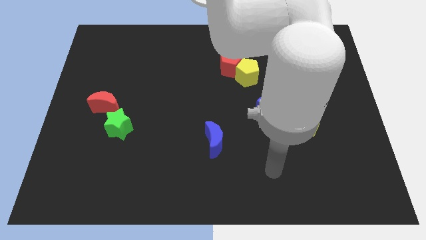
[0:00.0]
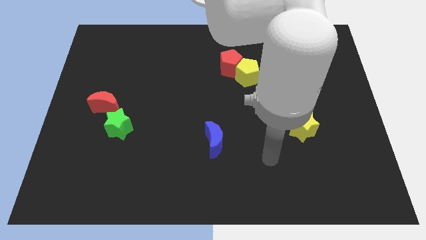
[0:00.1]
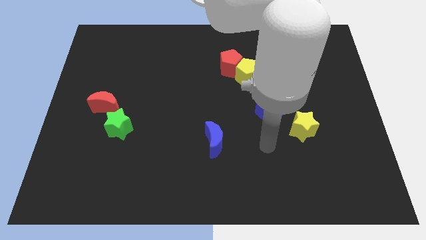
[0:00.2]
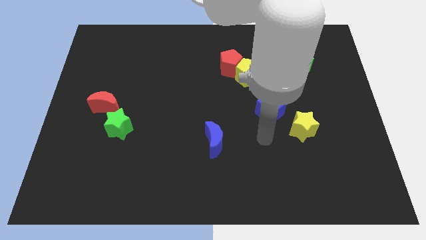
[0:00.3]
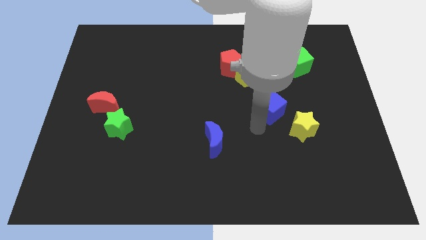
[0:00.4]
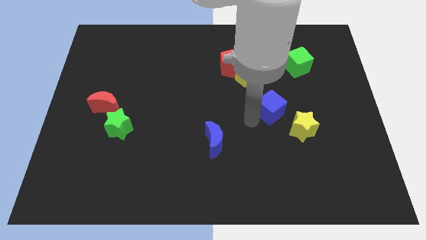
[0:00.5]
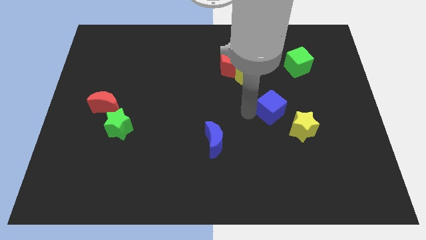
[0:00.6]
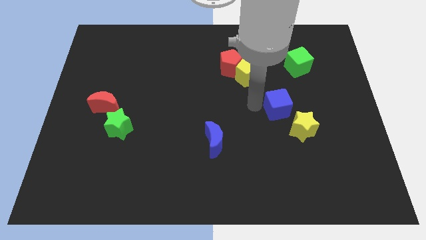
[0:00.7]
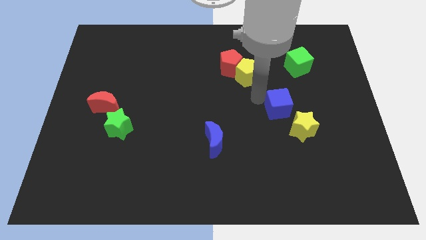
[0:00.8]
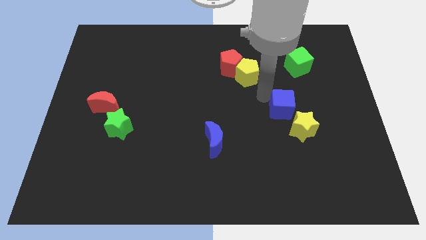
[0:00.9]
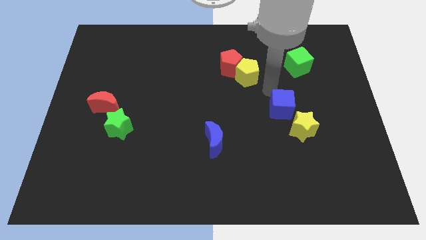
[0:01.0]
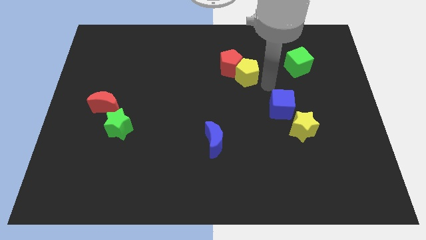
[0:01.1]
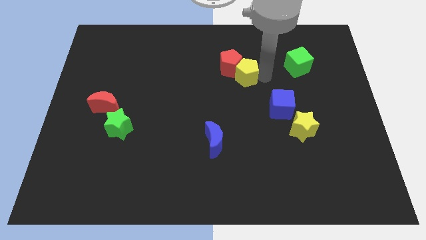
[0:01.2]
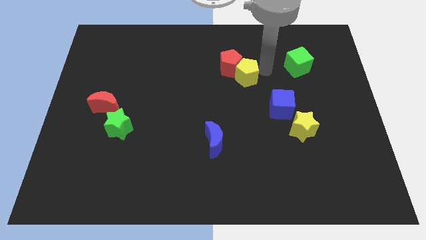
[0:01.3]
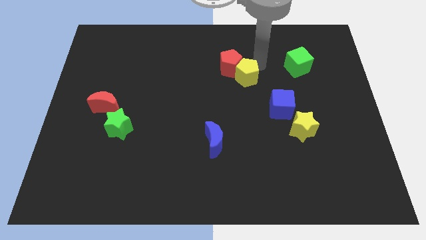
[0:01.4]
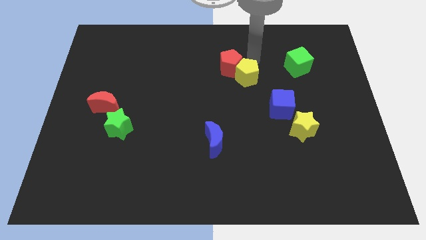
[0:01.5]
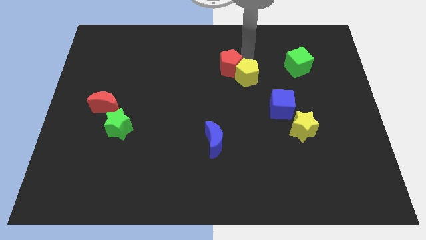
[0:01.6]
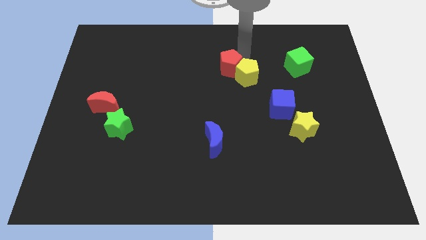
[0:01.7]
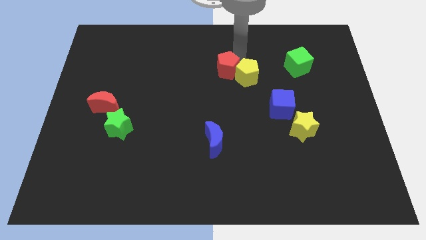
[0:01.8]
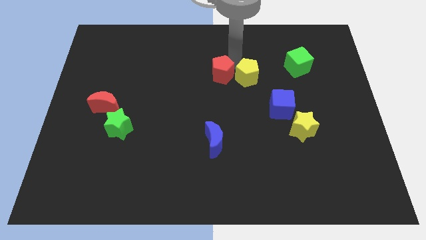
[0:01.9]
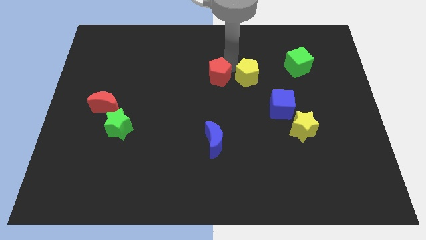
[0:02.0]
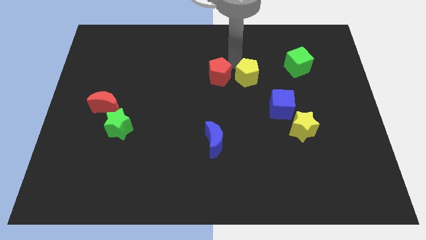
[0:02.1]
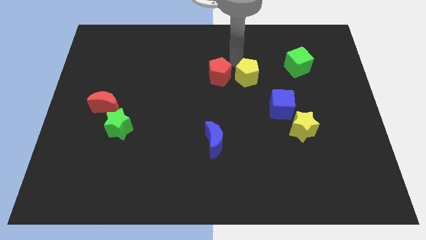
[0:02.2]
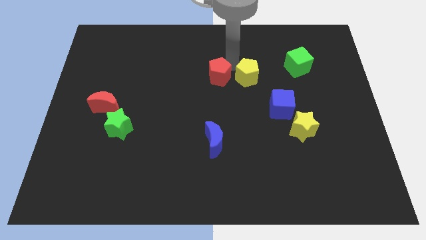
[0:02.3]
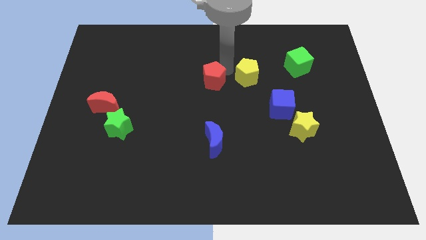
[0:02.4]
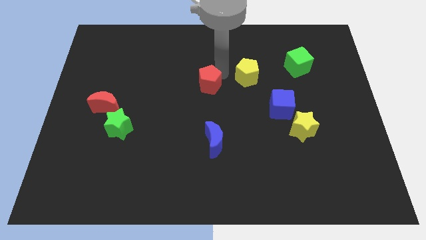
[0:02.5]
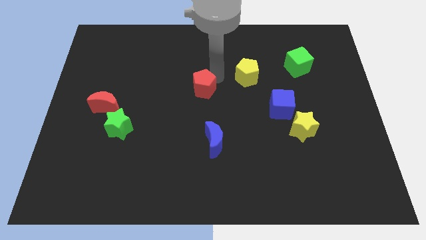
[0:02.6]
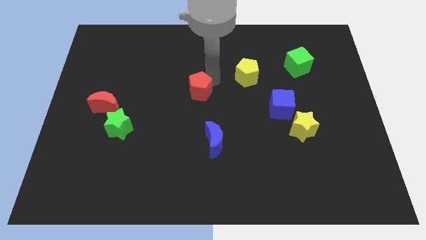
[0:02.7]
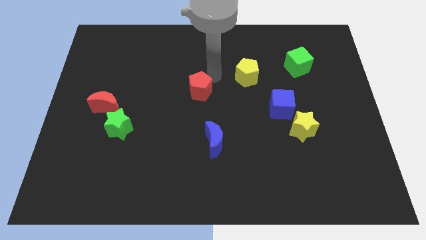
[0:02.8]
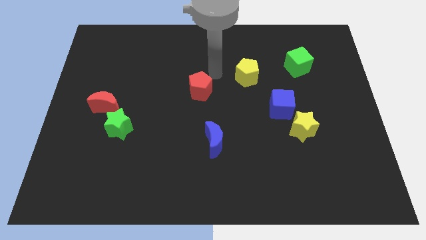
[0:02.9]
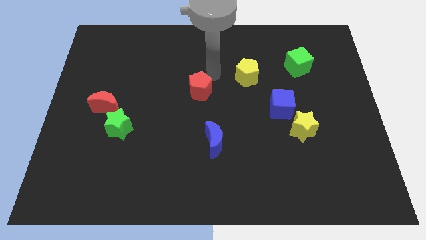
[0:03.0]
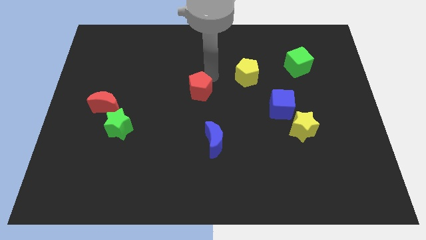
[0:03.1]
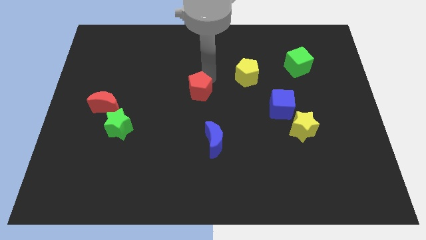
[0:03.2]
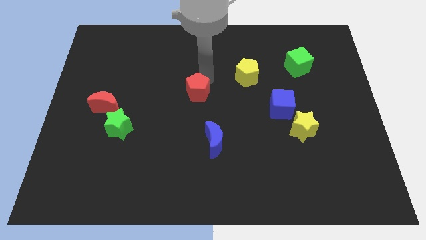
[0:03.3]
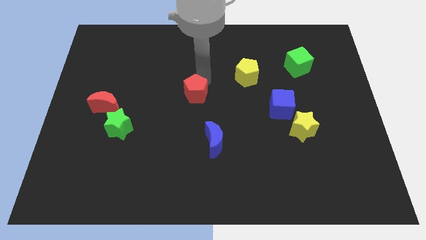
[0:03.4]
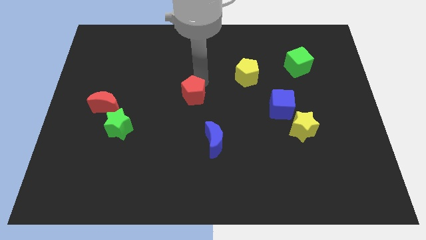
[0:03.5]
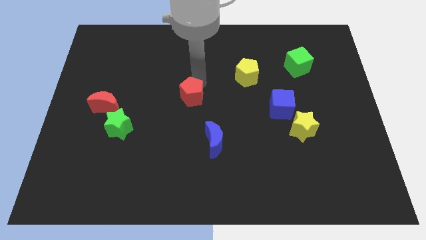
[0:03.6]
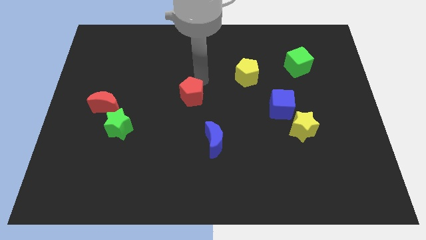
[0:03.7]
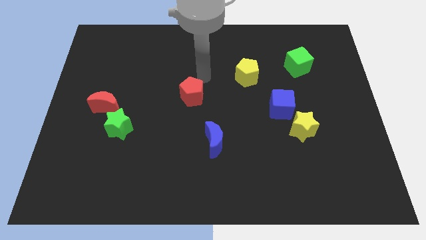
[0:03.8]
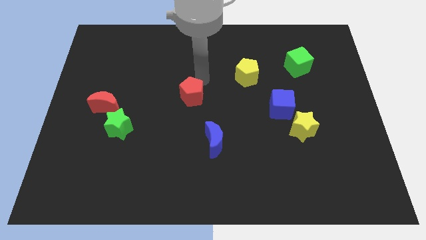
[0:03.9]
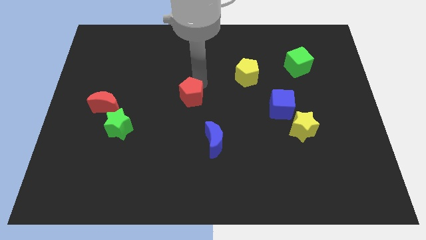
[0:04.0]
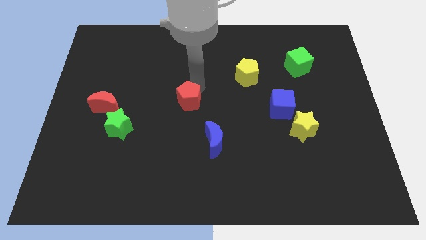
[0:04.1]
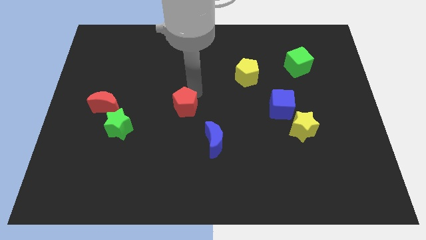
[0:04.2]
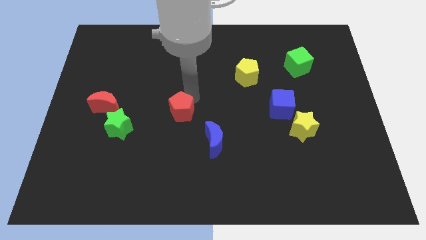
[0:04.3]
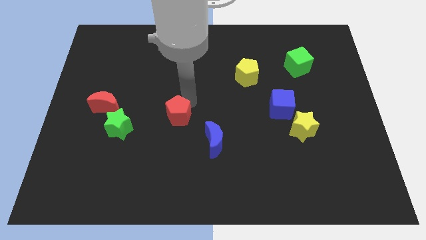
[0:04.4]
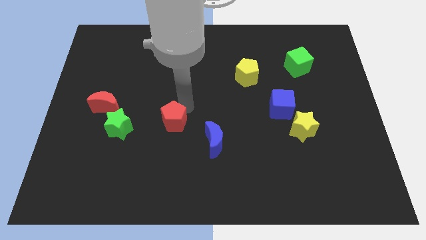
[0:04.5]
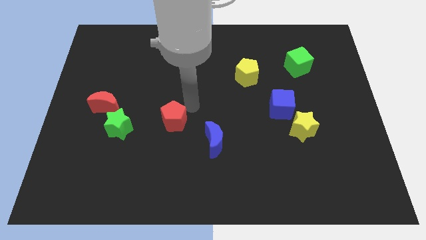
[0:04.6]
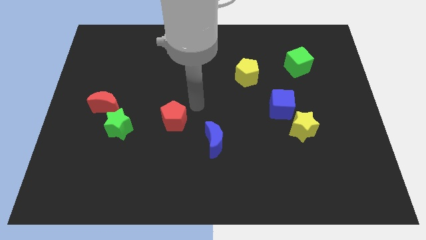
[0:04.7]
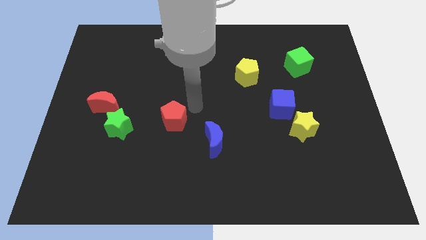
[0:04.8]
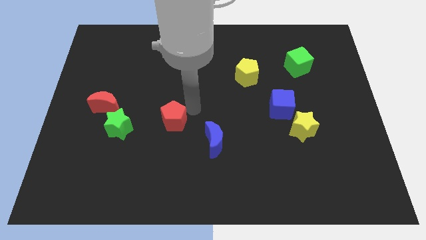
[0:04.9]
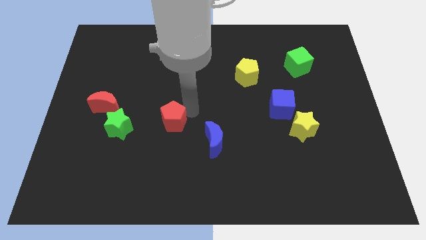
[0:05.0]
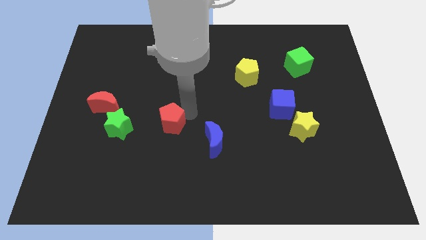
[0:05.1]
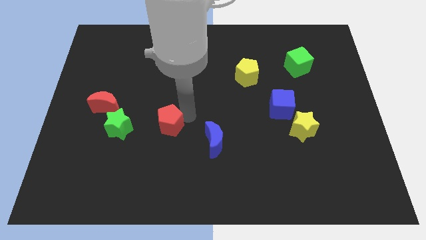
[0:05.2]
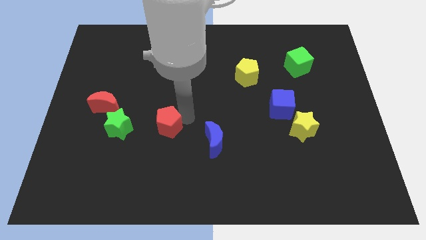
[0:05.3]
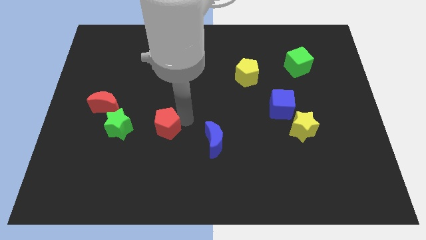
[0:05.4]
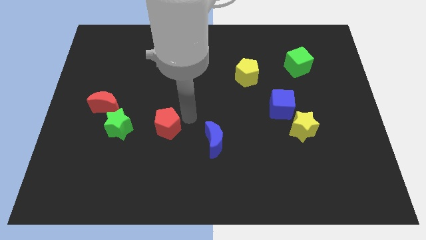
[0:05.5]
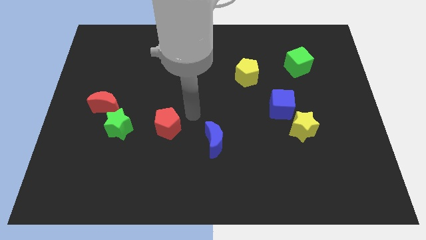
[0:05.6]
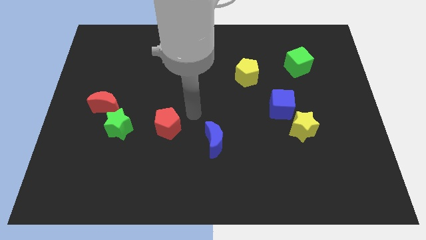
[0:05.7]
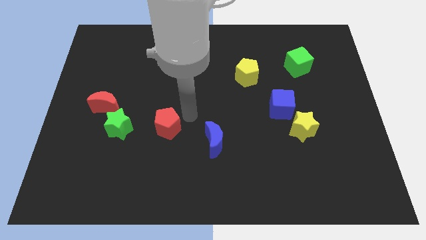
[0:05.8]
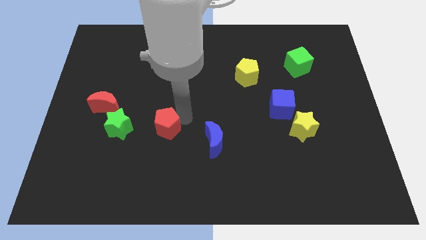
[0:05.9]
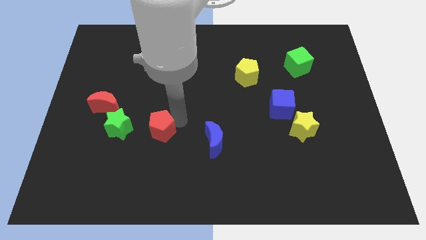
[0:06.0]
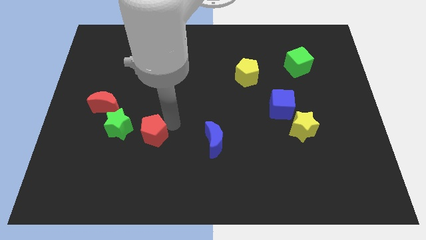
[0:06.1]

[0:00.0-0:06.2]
push the red pentagon to the bottom right of the green star

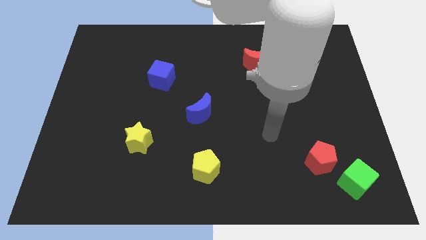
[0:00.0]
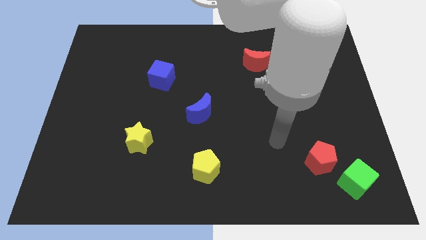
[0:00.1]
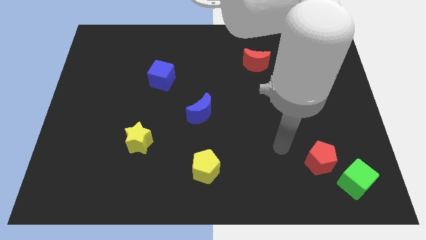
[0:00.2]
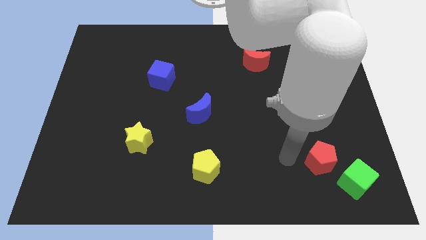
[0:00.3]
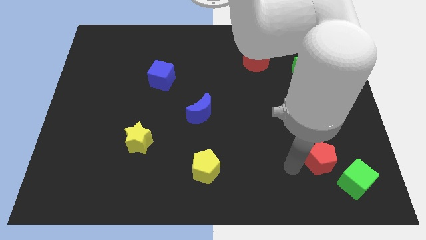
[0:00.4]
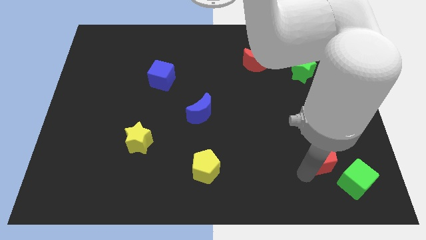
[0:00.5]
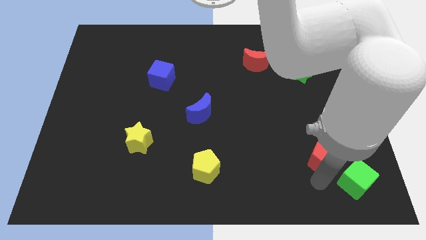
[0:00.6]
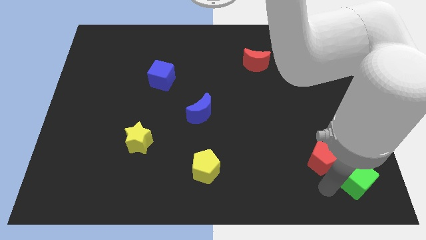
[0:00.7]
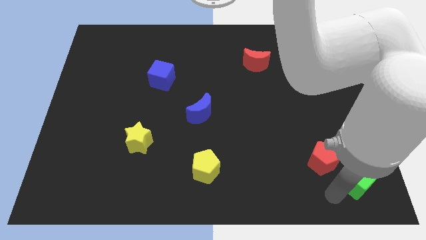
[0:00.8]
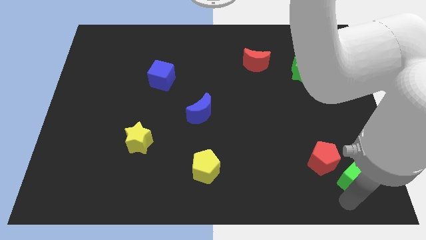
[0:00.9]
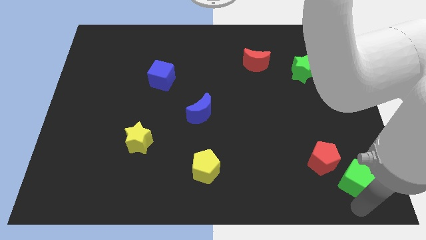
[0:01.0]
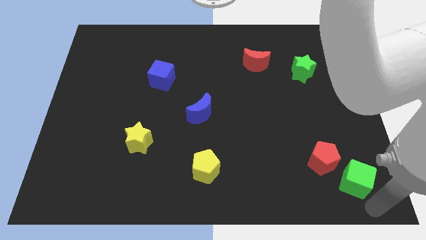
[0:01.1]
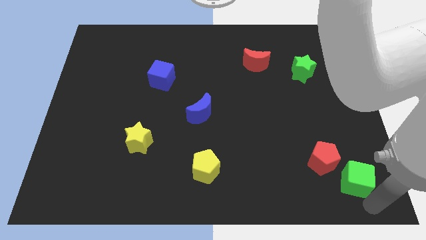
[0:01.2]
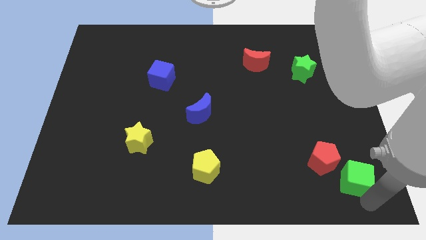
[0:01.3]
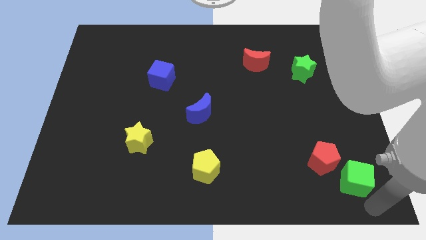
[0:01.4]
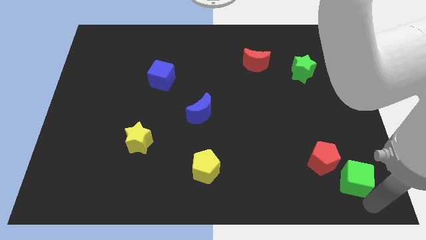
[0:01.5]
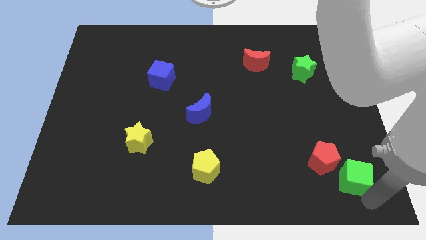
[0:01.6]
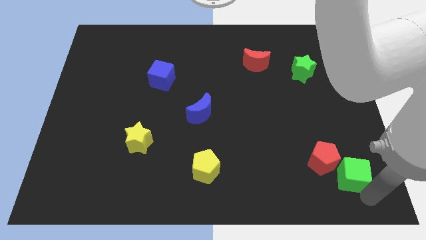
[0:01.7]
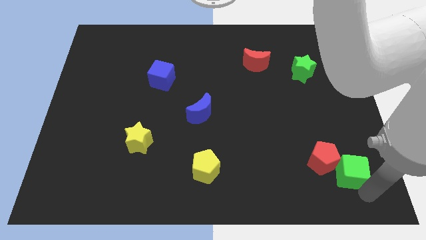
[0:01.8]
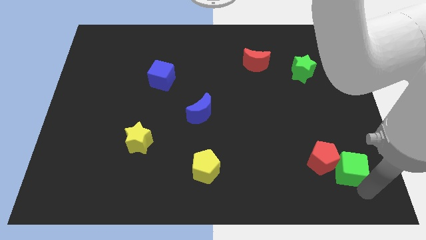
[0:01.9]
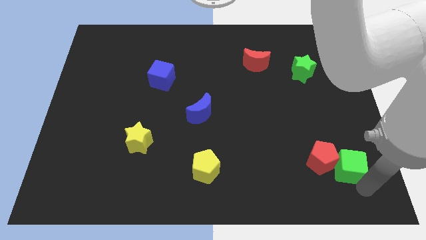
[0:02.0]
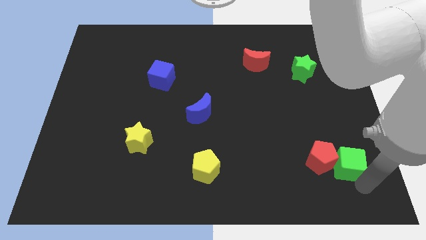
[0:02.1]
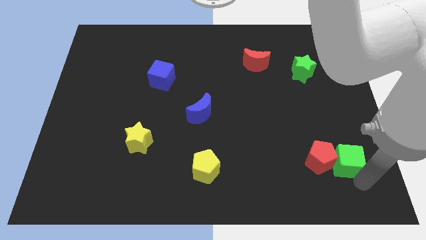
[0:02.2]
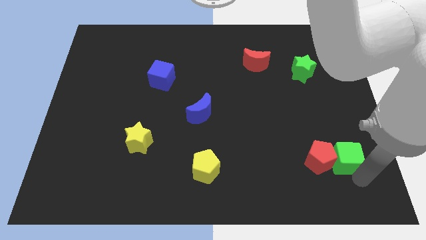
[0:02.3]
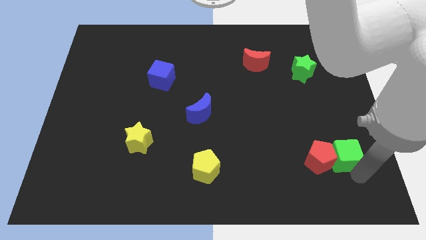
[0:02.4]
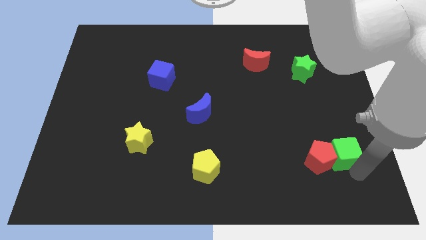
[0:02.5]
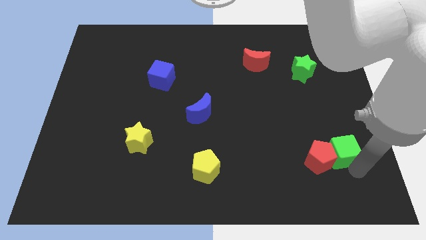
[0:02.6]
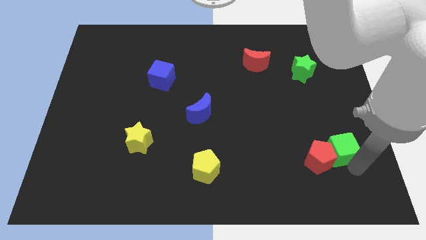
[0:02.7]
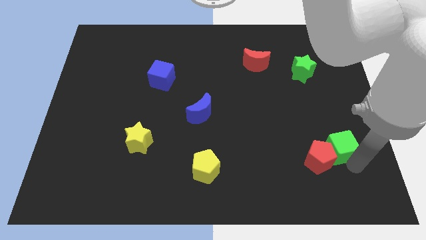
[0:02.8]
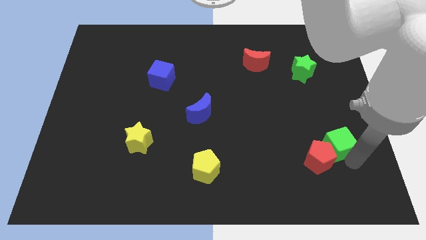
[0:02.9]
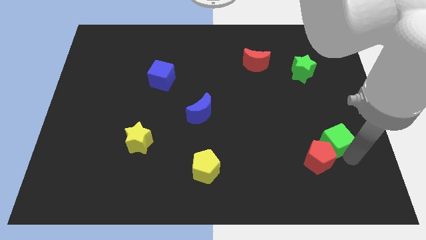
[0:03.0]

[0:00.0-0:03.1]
push the green cube above the red pentagon
